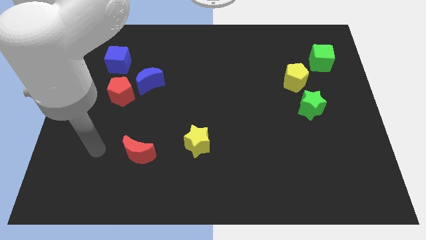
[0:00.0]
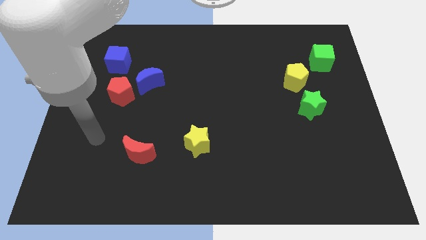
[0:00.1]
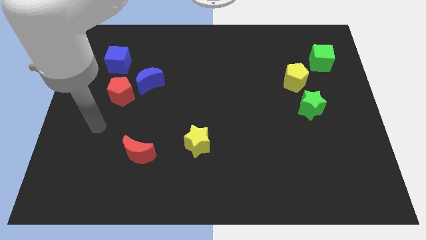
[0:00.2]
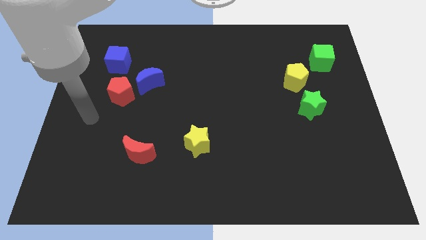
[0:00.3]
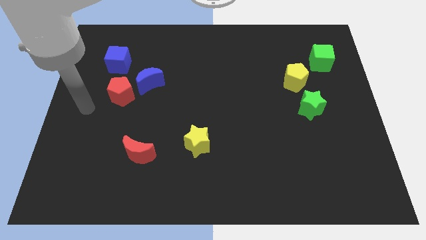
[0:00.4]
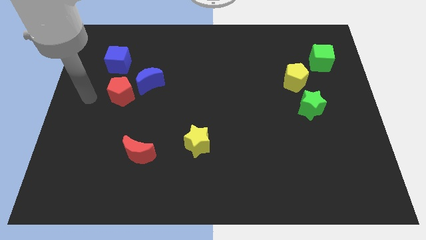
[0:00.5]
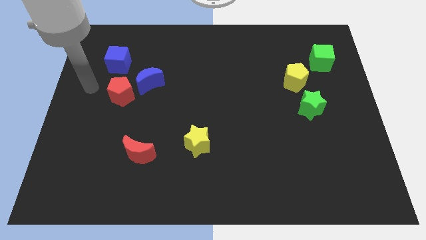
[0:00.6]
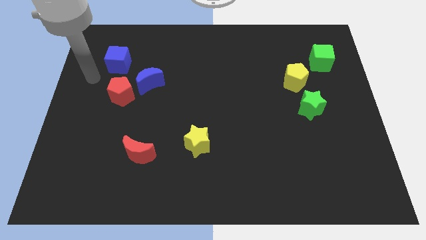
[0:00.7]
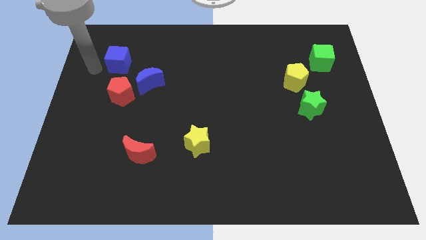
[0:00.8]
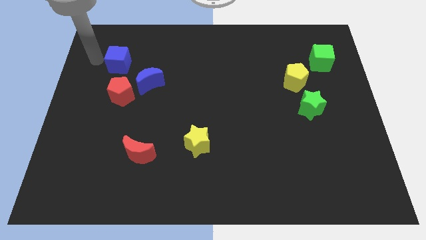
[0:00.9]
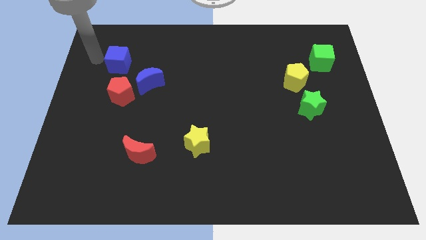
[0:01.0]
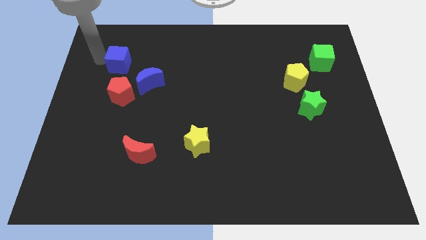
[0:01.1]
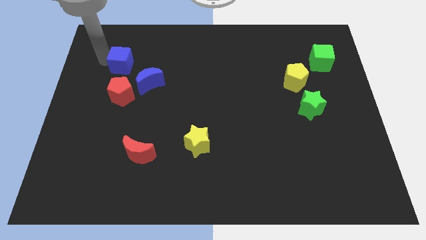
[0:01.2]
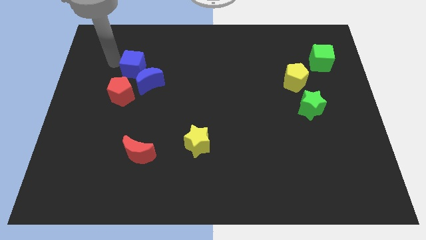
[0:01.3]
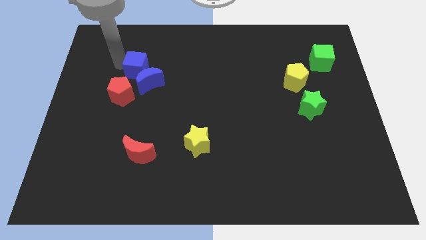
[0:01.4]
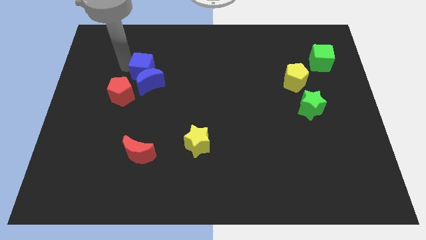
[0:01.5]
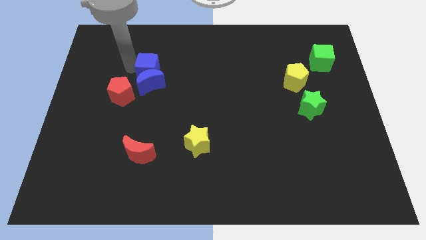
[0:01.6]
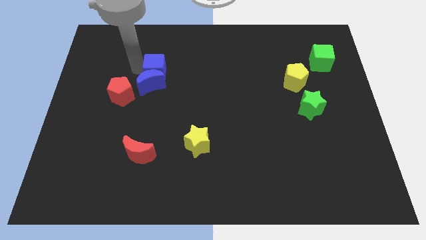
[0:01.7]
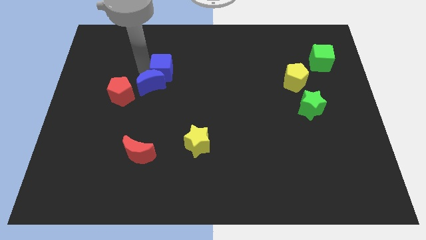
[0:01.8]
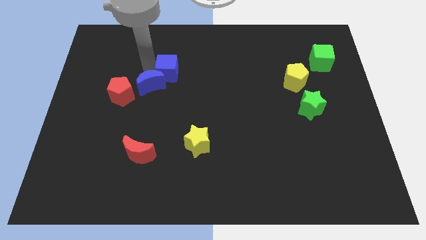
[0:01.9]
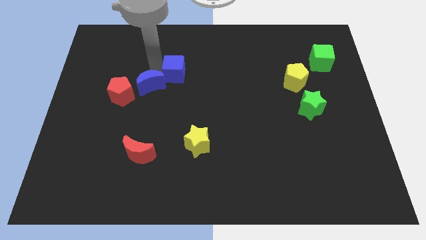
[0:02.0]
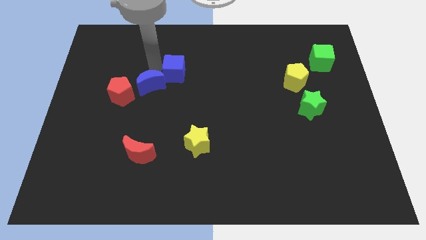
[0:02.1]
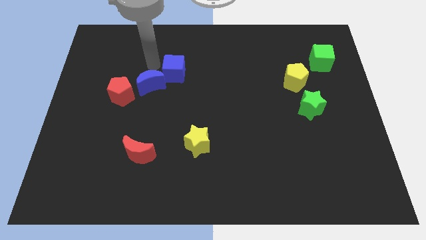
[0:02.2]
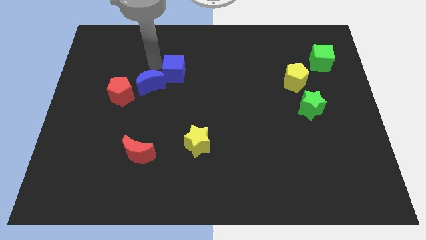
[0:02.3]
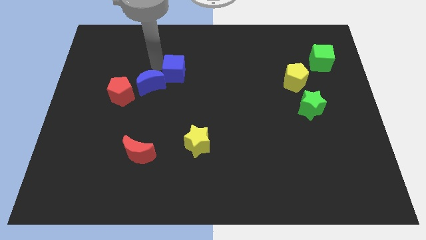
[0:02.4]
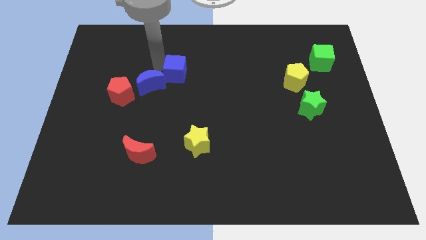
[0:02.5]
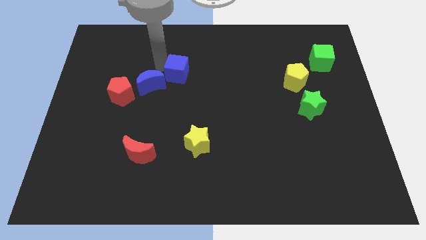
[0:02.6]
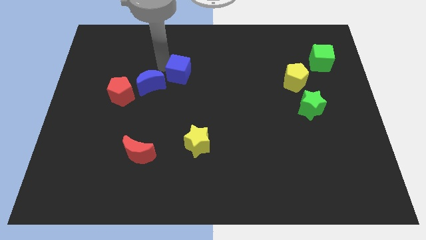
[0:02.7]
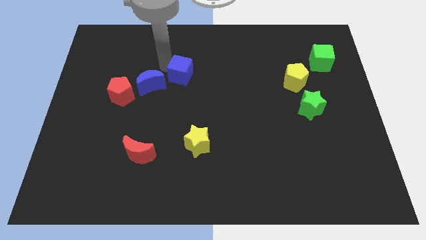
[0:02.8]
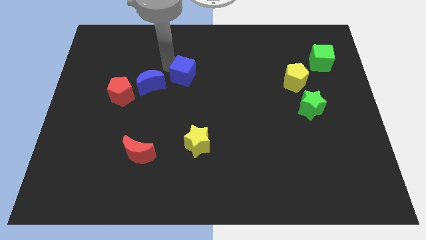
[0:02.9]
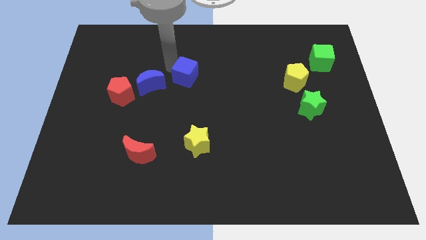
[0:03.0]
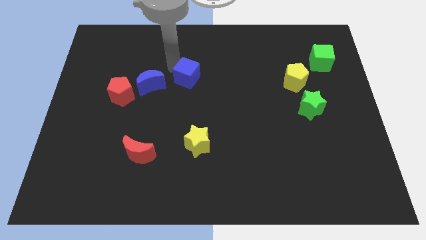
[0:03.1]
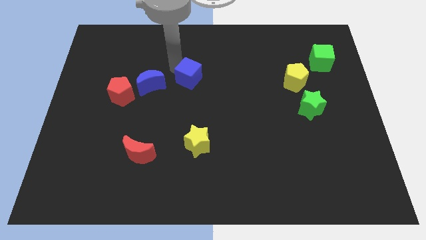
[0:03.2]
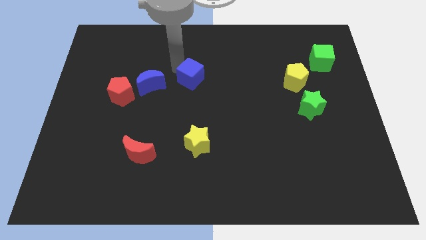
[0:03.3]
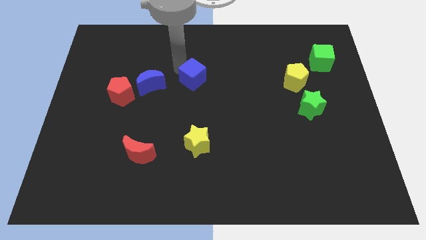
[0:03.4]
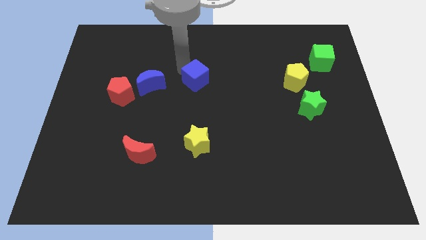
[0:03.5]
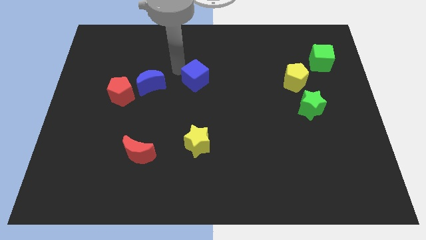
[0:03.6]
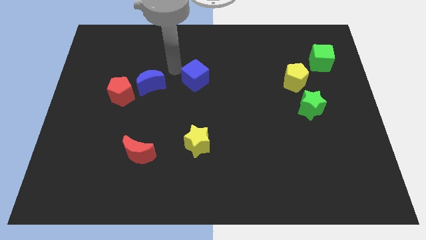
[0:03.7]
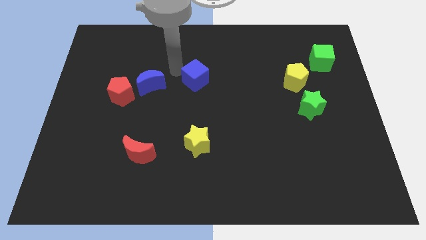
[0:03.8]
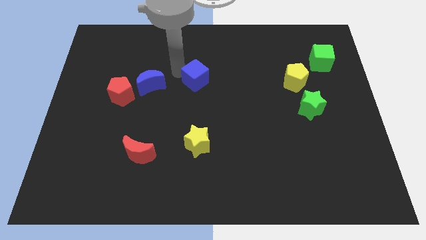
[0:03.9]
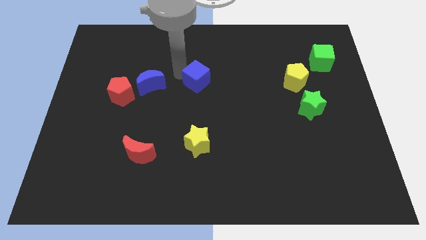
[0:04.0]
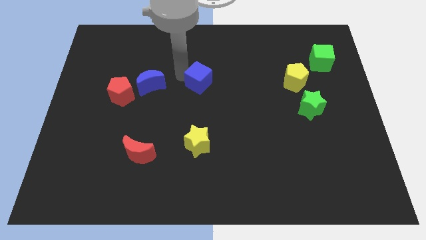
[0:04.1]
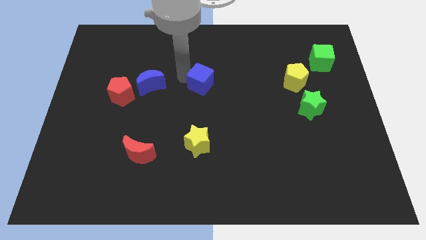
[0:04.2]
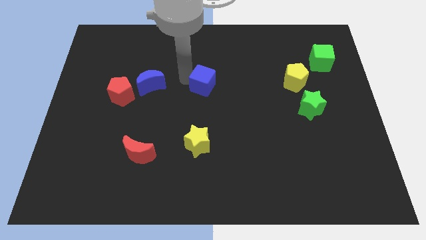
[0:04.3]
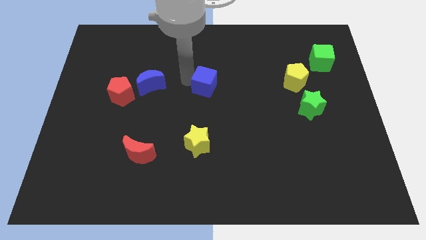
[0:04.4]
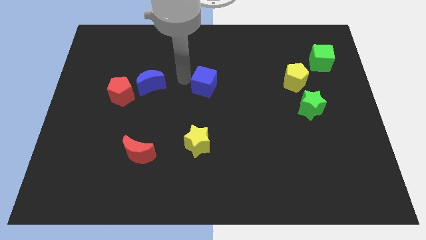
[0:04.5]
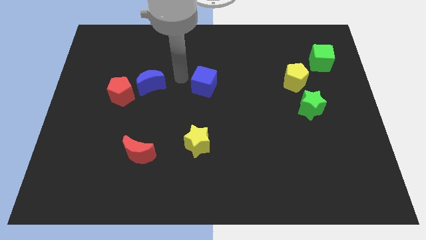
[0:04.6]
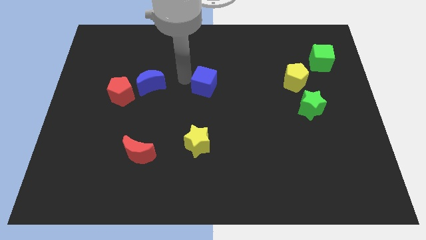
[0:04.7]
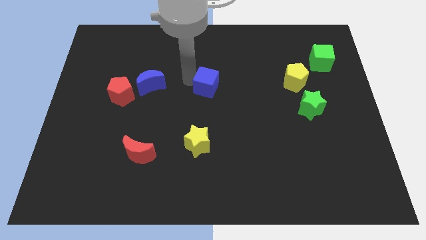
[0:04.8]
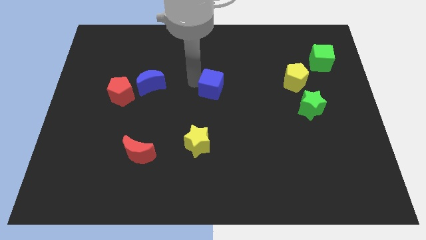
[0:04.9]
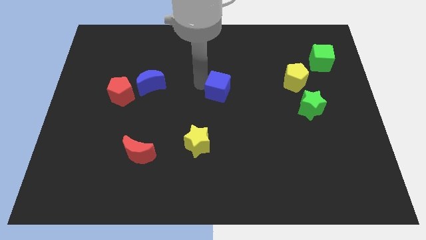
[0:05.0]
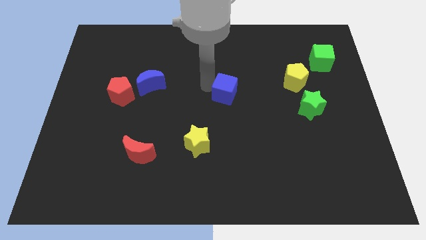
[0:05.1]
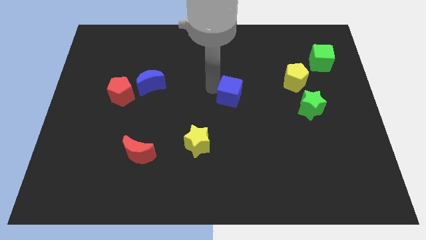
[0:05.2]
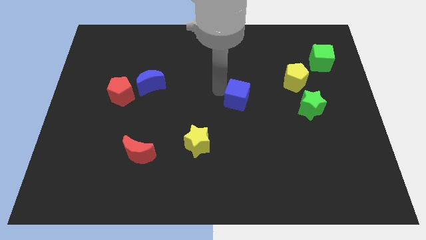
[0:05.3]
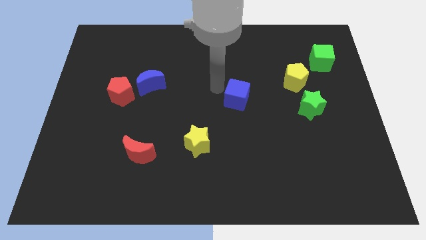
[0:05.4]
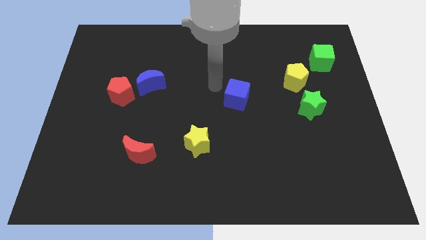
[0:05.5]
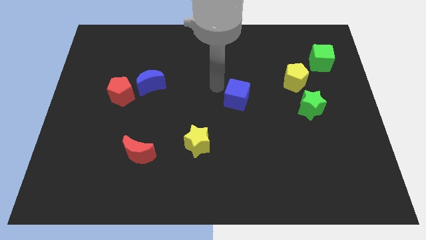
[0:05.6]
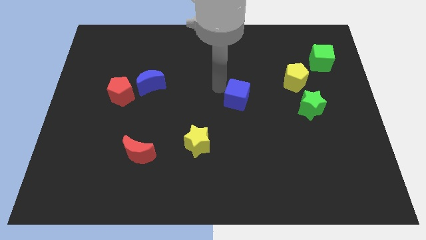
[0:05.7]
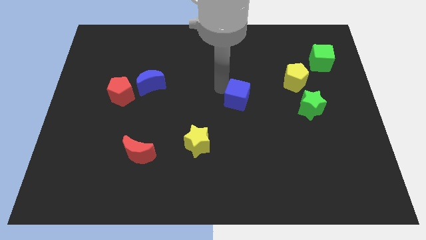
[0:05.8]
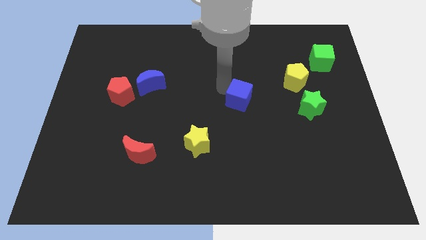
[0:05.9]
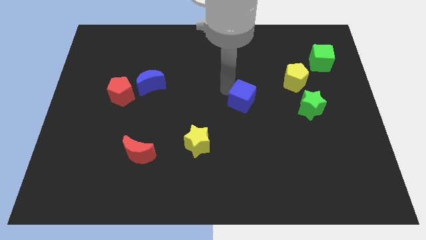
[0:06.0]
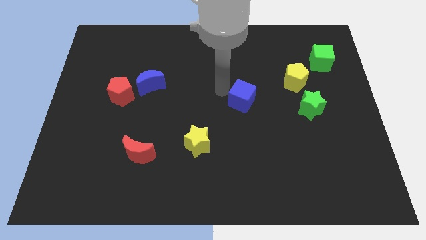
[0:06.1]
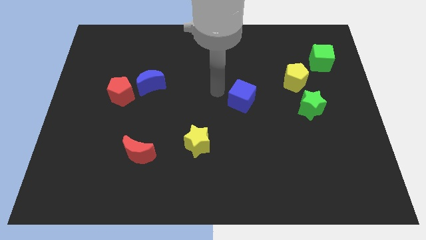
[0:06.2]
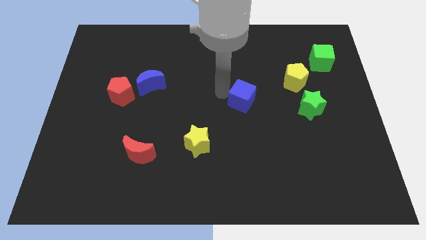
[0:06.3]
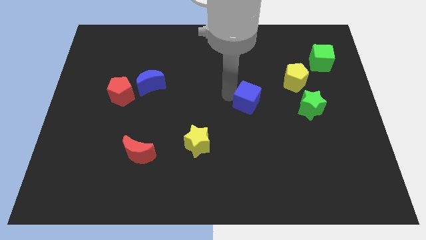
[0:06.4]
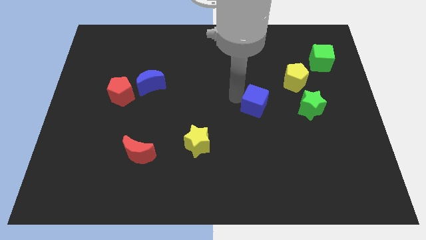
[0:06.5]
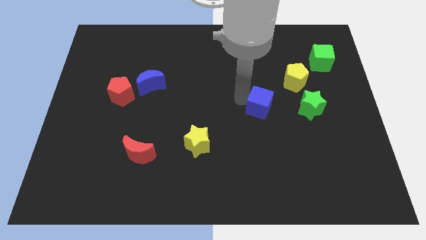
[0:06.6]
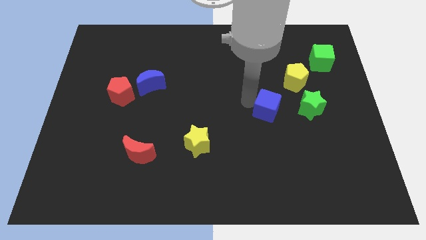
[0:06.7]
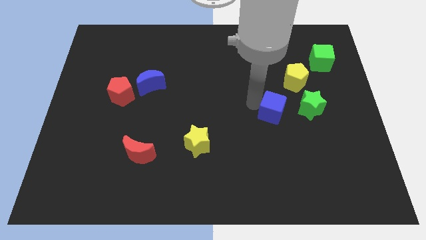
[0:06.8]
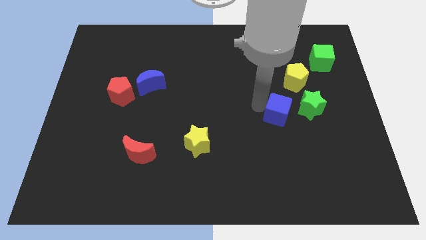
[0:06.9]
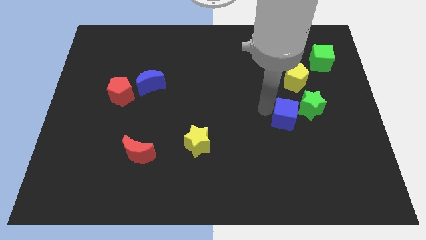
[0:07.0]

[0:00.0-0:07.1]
push the blue cube to the bottom side of the yellow pentagon

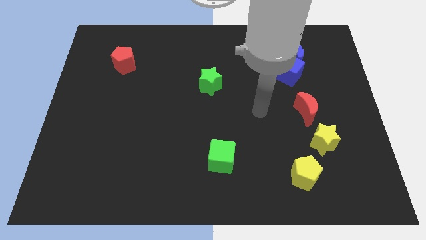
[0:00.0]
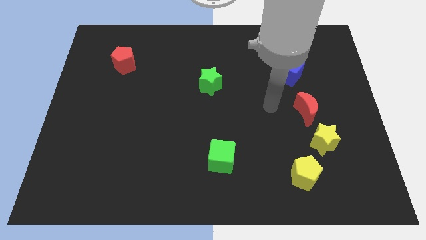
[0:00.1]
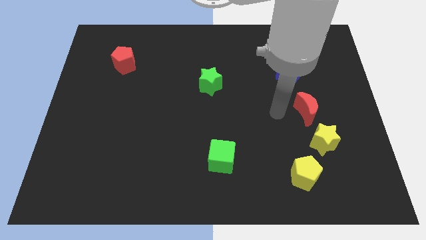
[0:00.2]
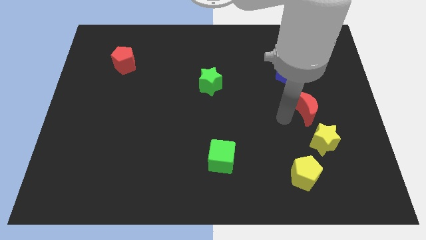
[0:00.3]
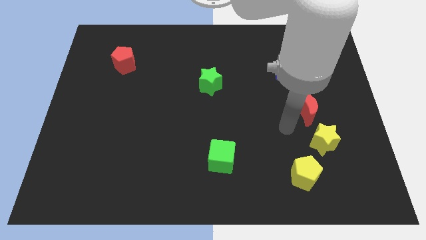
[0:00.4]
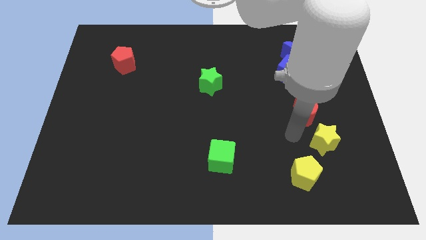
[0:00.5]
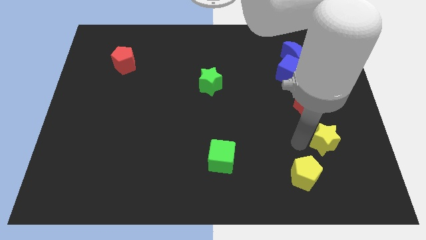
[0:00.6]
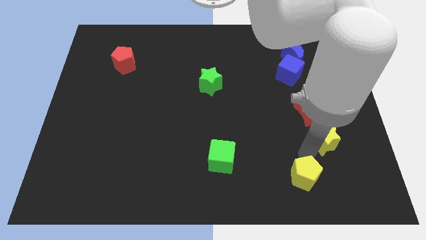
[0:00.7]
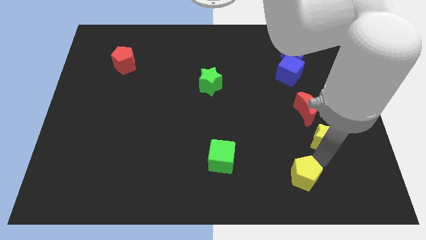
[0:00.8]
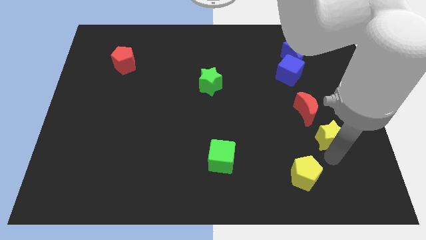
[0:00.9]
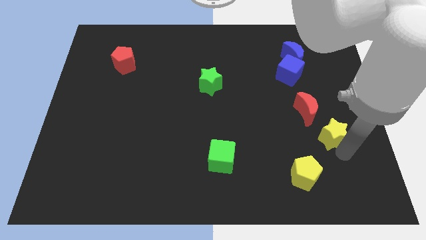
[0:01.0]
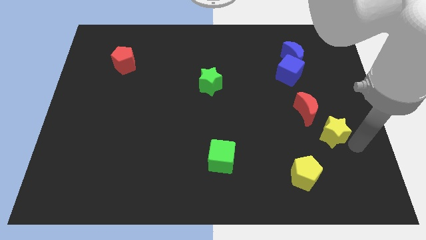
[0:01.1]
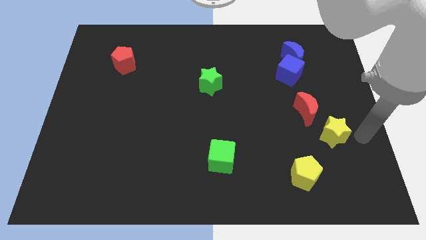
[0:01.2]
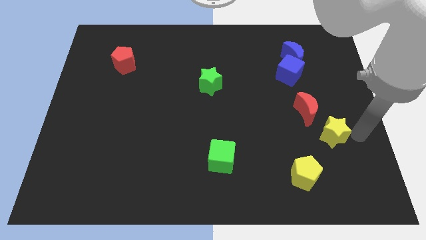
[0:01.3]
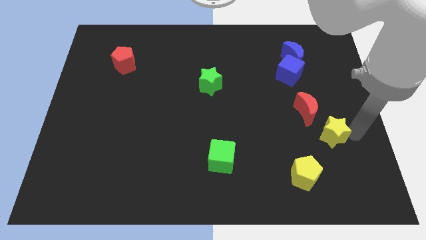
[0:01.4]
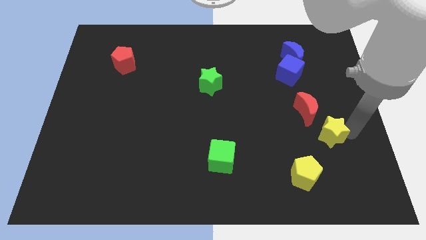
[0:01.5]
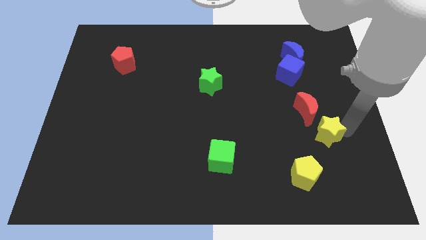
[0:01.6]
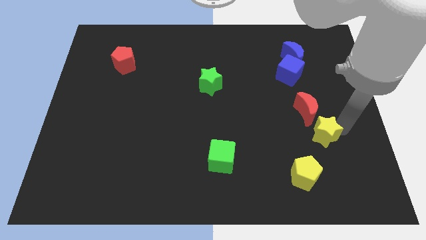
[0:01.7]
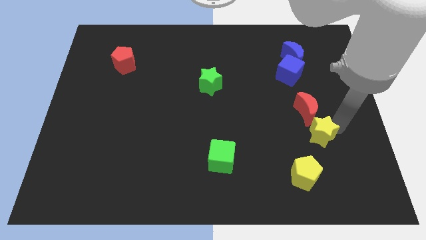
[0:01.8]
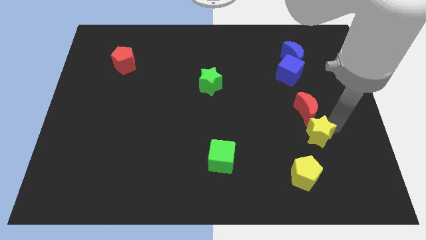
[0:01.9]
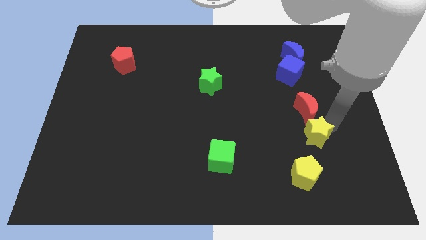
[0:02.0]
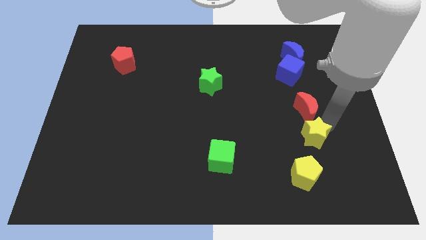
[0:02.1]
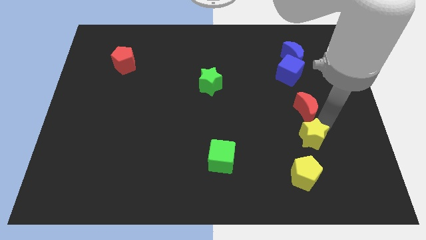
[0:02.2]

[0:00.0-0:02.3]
put the yellow star to the bottom left of the red moon
